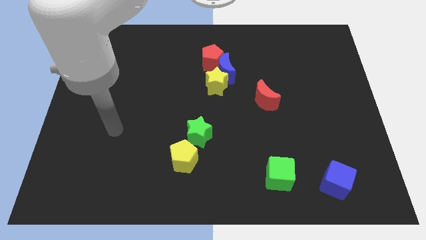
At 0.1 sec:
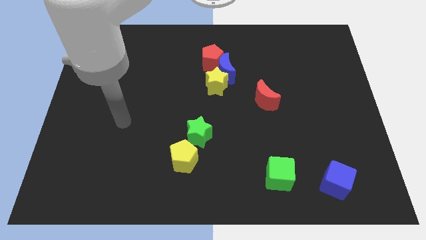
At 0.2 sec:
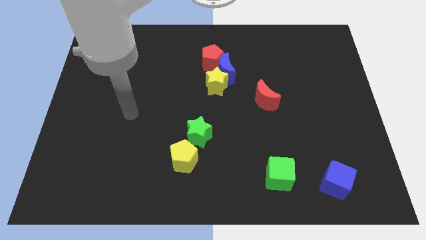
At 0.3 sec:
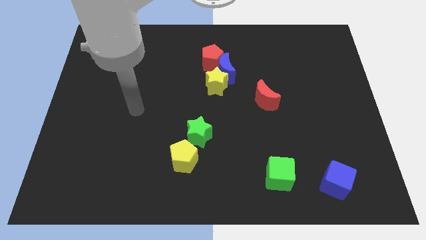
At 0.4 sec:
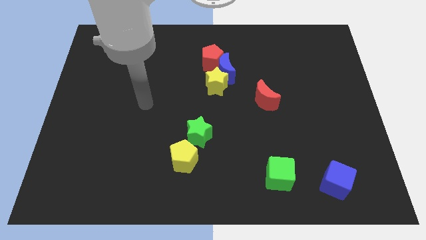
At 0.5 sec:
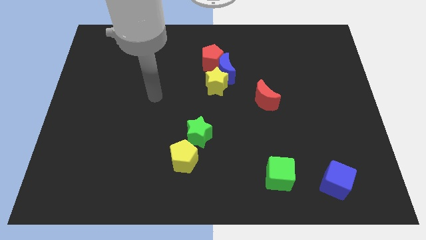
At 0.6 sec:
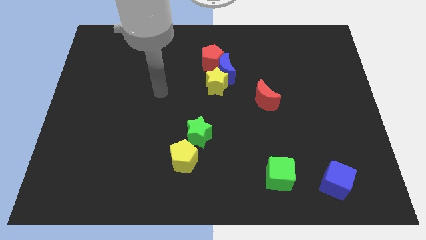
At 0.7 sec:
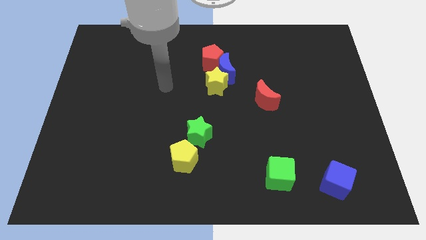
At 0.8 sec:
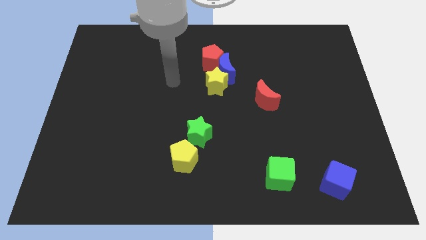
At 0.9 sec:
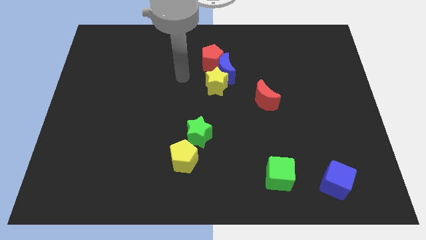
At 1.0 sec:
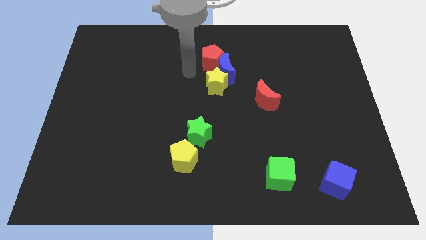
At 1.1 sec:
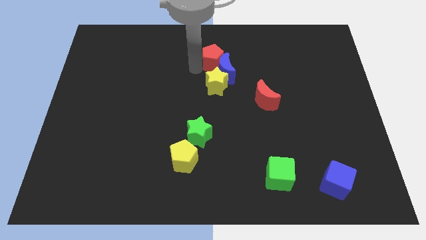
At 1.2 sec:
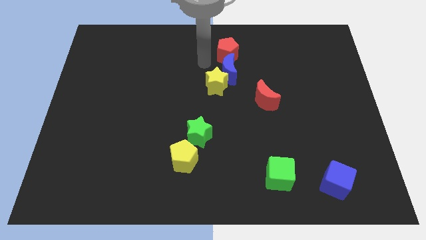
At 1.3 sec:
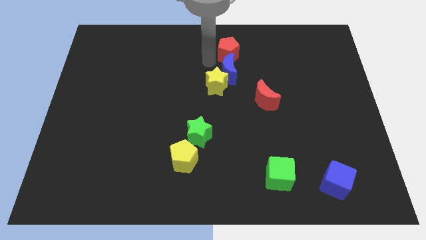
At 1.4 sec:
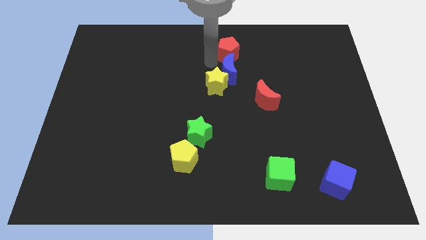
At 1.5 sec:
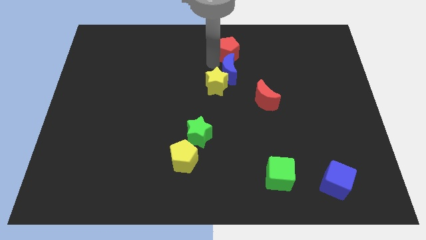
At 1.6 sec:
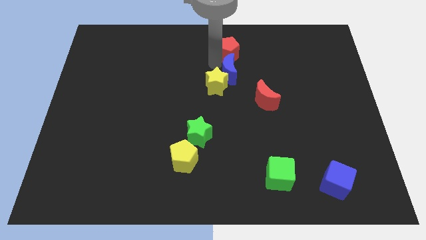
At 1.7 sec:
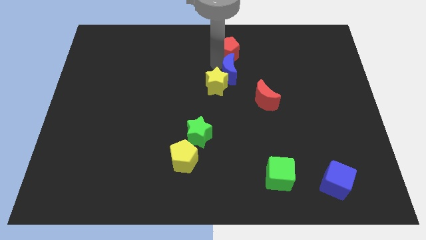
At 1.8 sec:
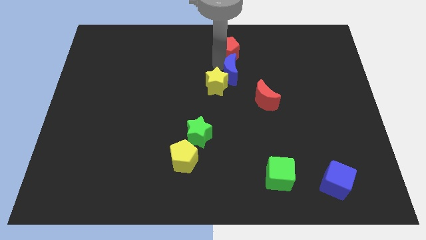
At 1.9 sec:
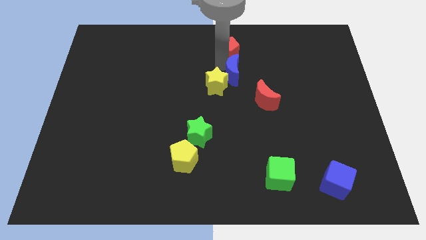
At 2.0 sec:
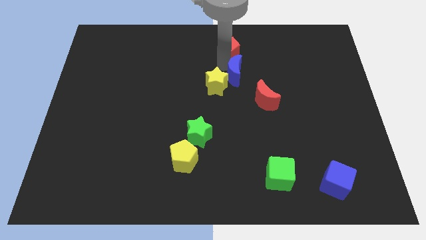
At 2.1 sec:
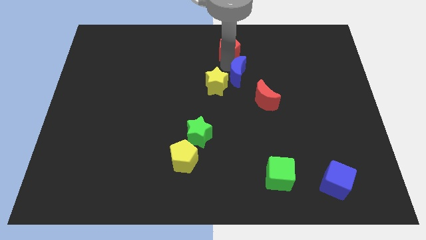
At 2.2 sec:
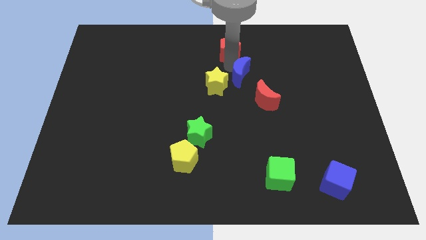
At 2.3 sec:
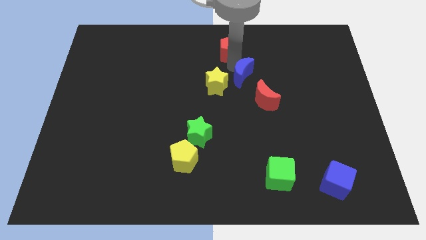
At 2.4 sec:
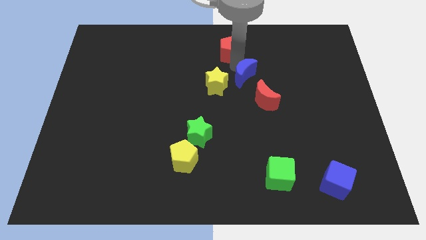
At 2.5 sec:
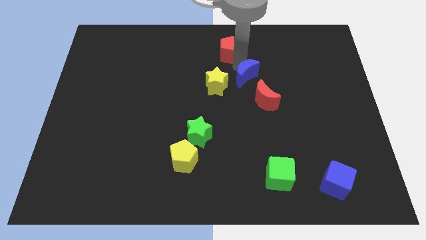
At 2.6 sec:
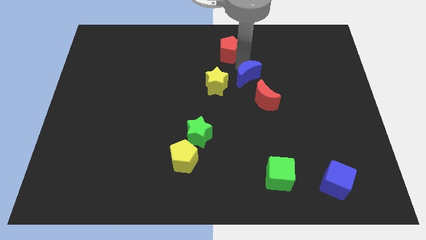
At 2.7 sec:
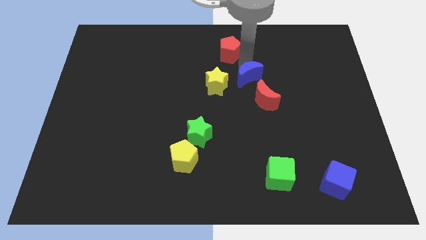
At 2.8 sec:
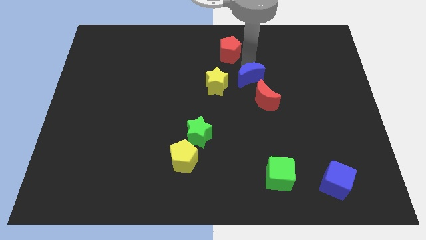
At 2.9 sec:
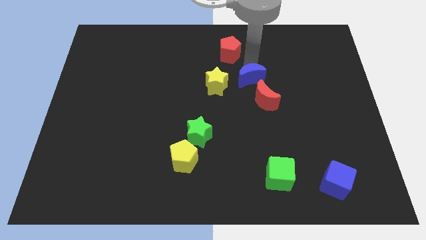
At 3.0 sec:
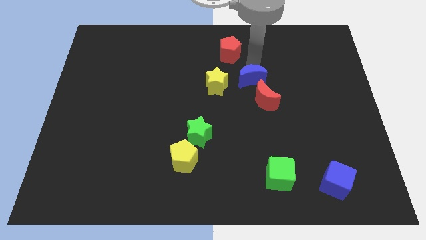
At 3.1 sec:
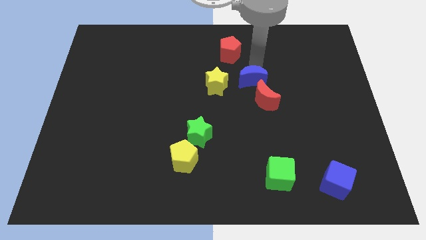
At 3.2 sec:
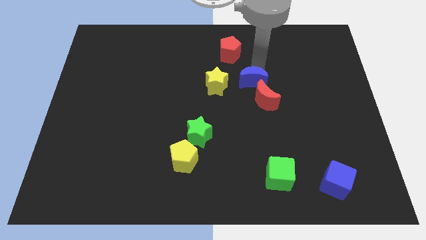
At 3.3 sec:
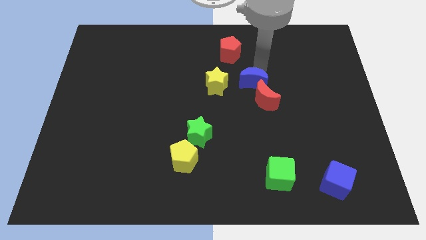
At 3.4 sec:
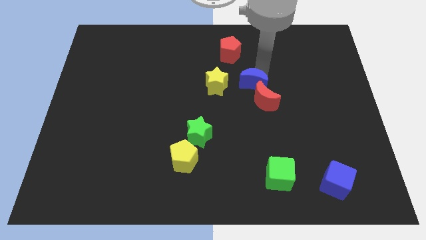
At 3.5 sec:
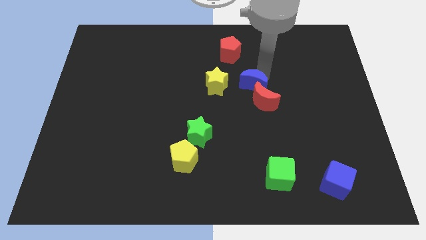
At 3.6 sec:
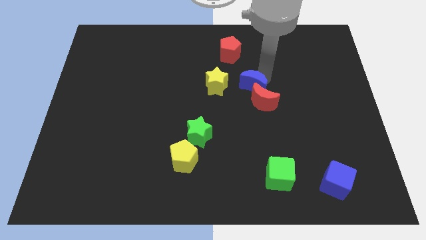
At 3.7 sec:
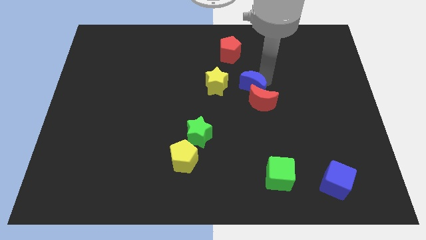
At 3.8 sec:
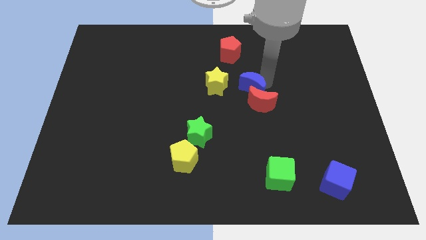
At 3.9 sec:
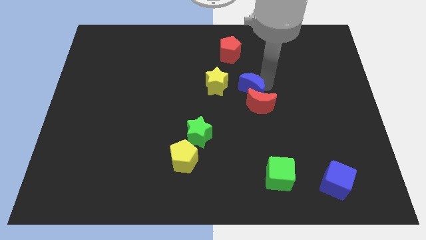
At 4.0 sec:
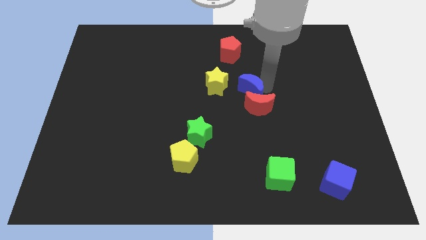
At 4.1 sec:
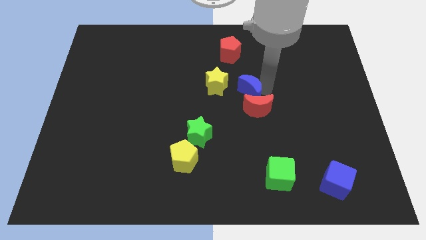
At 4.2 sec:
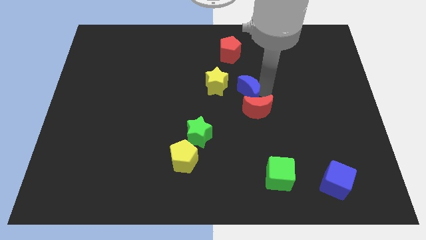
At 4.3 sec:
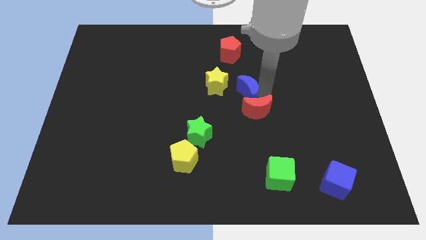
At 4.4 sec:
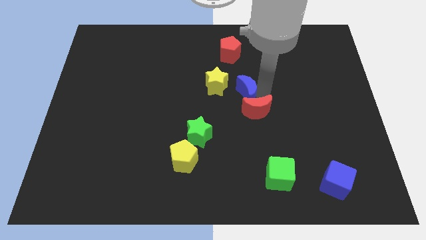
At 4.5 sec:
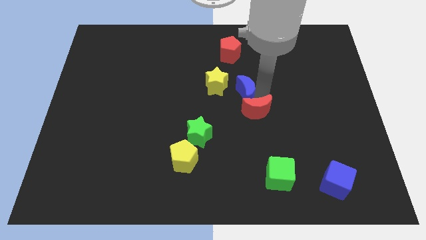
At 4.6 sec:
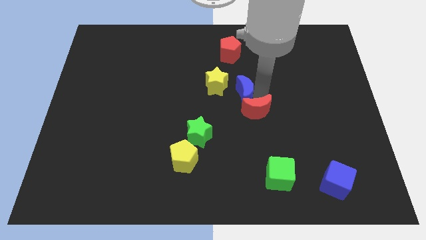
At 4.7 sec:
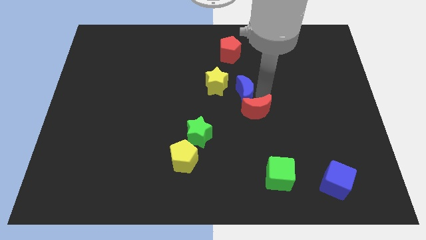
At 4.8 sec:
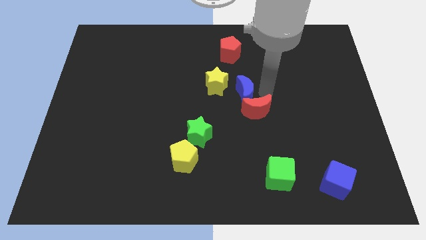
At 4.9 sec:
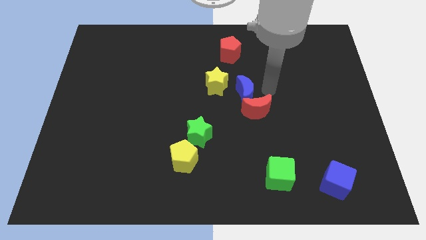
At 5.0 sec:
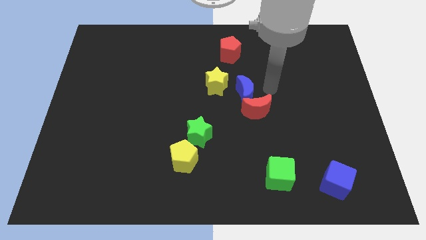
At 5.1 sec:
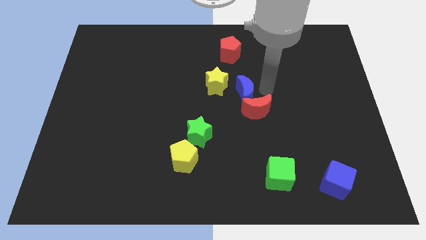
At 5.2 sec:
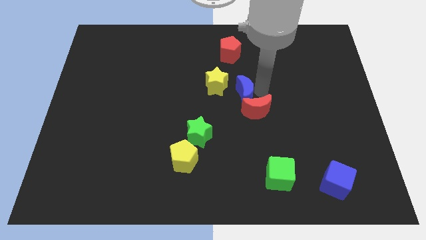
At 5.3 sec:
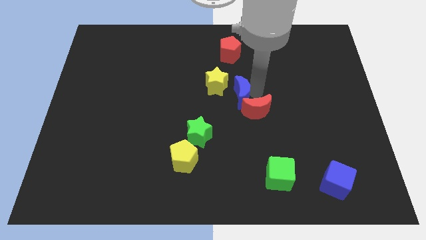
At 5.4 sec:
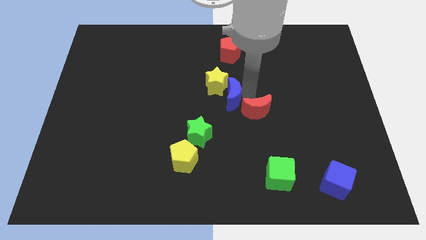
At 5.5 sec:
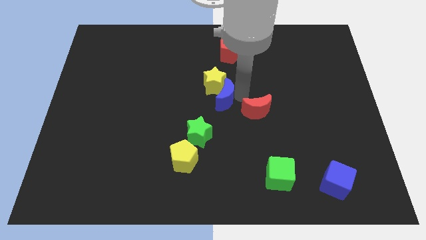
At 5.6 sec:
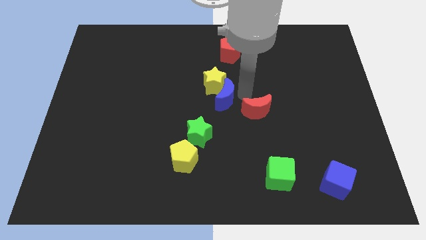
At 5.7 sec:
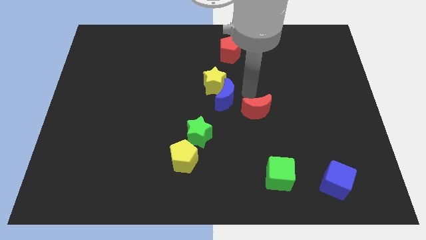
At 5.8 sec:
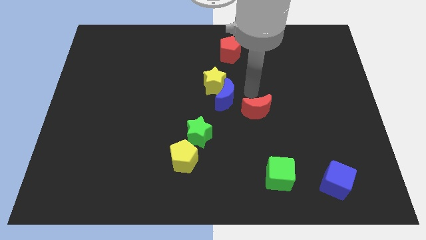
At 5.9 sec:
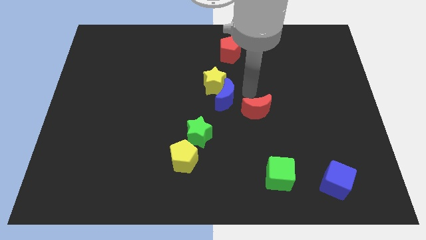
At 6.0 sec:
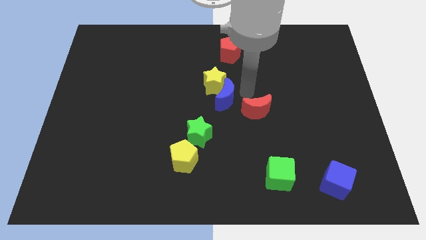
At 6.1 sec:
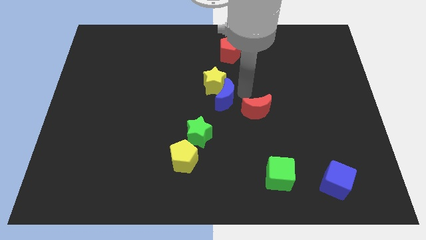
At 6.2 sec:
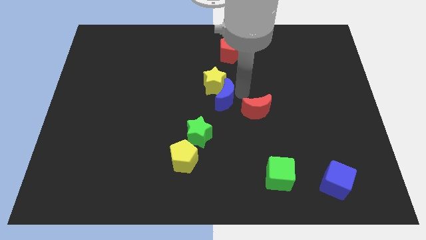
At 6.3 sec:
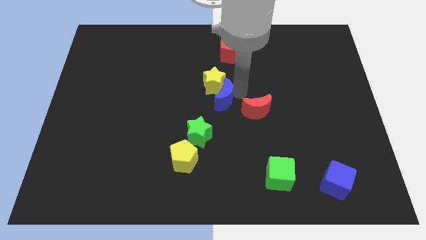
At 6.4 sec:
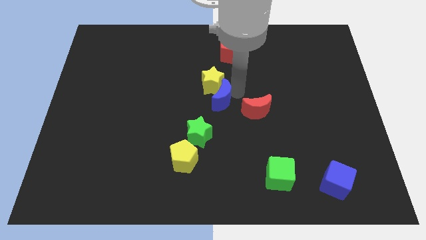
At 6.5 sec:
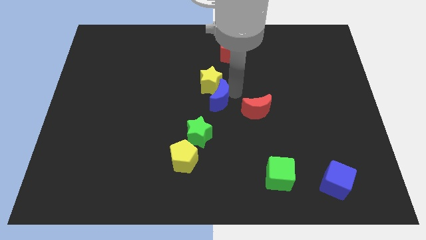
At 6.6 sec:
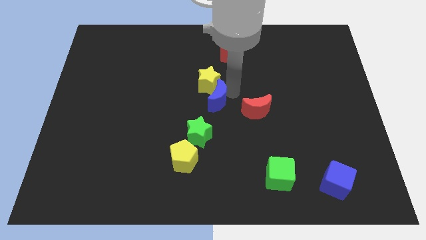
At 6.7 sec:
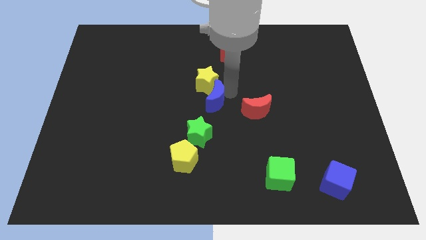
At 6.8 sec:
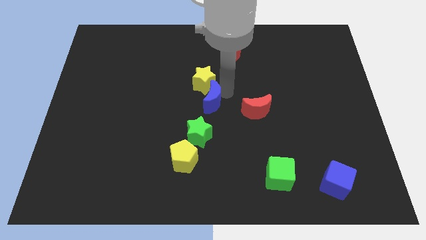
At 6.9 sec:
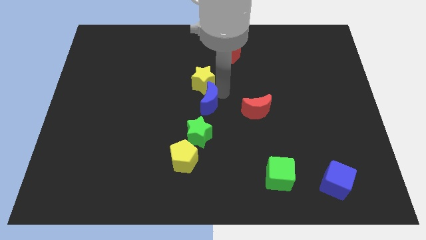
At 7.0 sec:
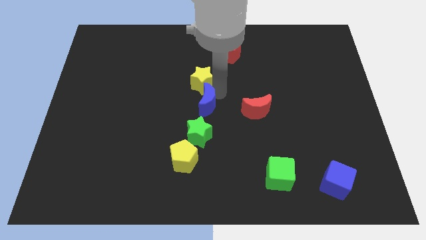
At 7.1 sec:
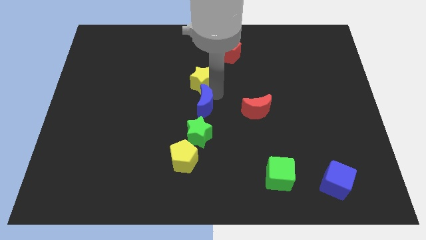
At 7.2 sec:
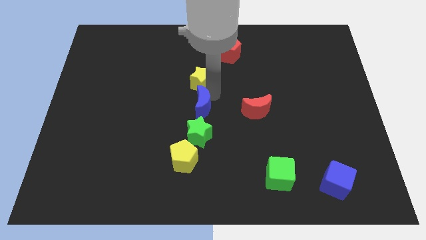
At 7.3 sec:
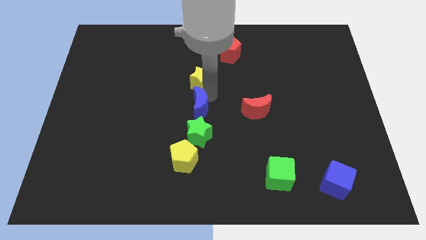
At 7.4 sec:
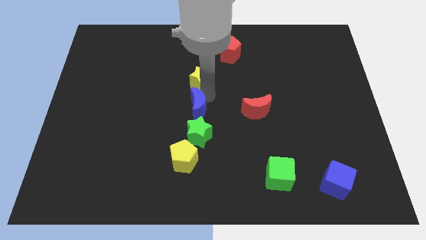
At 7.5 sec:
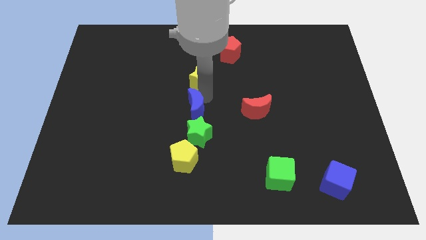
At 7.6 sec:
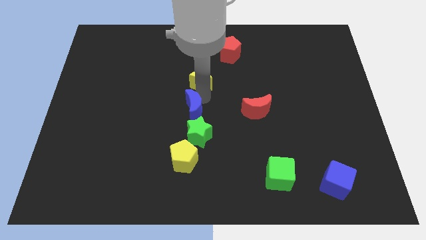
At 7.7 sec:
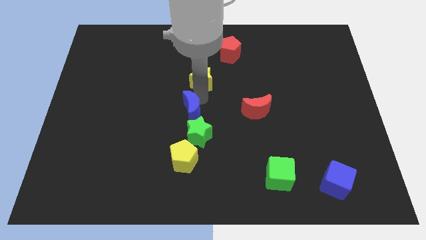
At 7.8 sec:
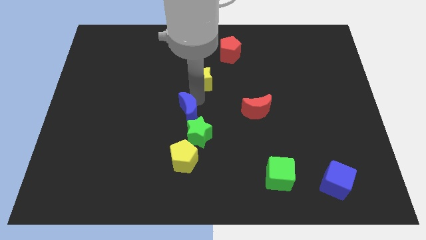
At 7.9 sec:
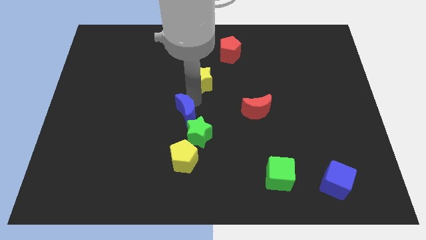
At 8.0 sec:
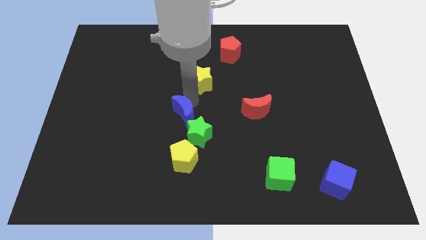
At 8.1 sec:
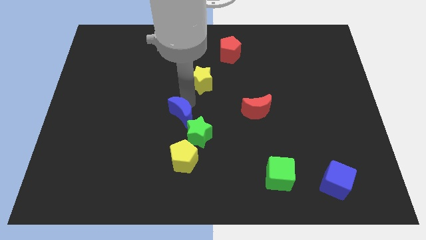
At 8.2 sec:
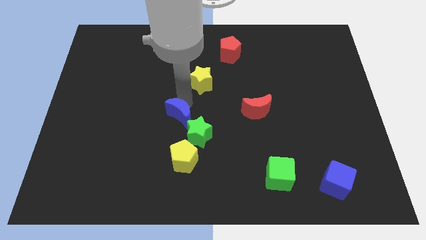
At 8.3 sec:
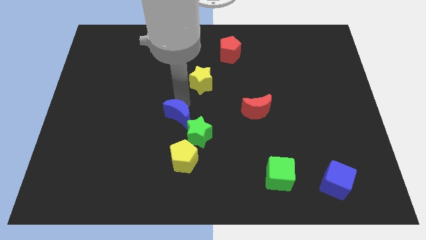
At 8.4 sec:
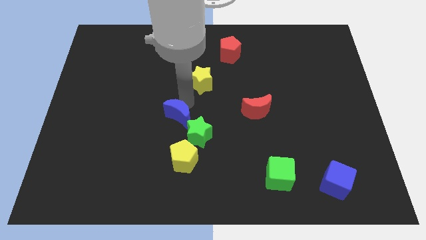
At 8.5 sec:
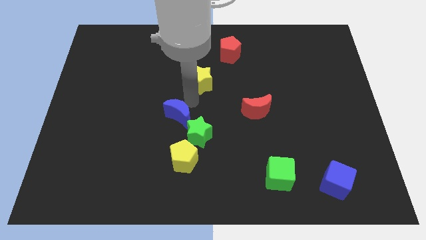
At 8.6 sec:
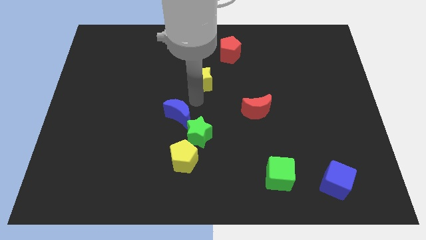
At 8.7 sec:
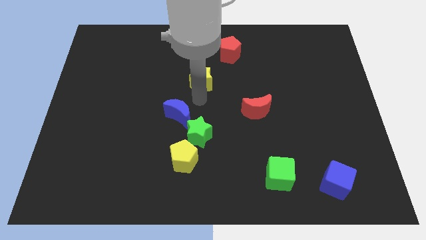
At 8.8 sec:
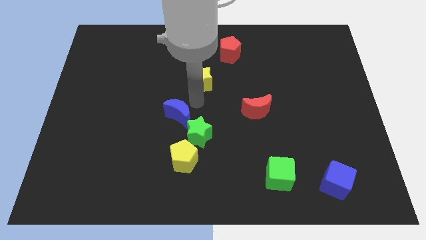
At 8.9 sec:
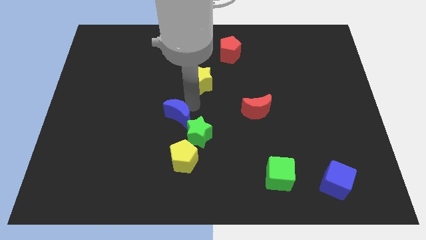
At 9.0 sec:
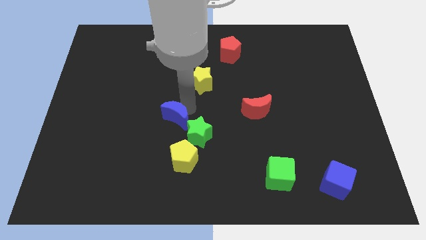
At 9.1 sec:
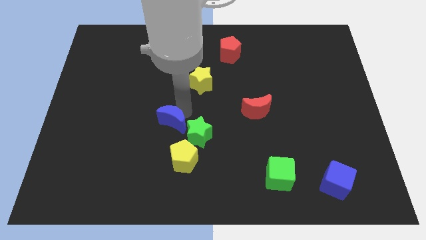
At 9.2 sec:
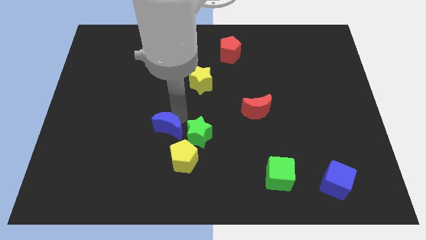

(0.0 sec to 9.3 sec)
move the blue moon downwards and then to the left
